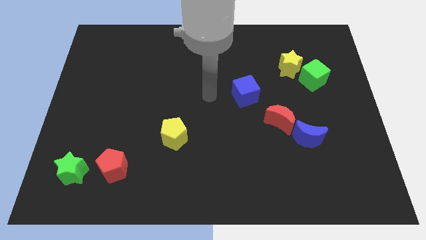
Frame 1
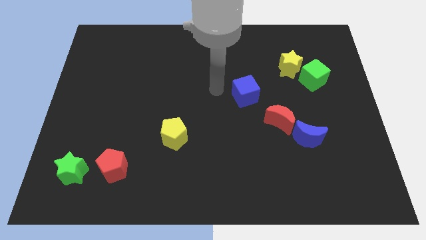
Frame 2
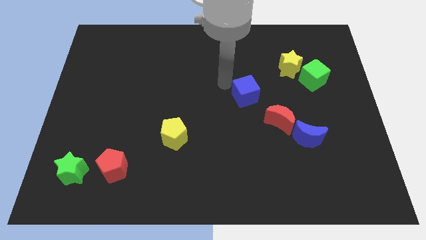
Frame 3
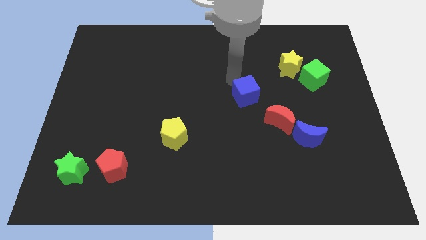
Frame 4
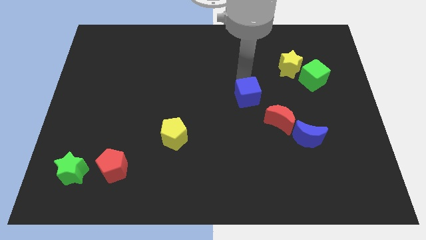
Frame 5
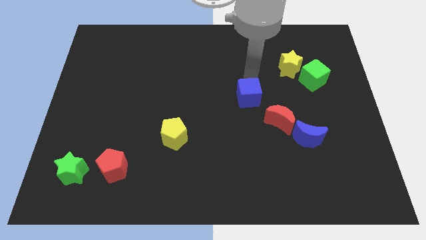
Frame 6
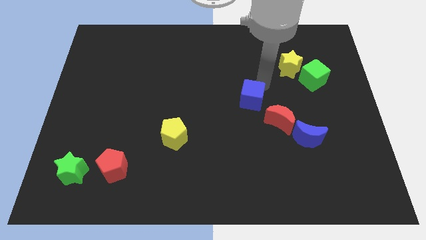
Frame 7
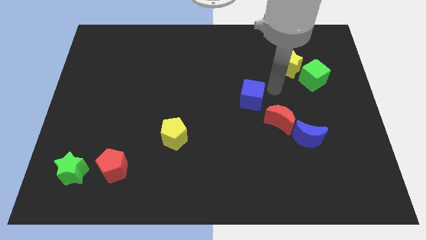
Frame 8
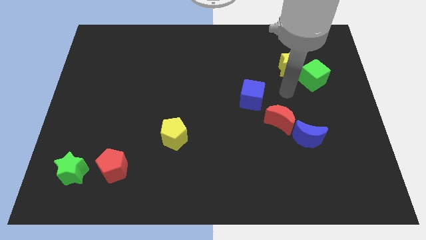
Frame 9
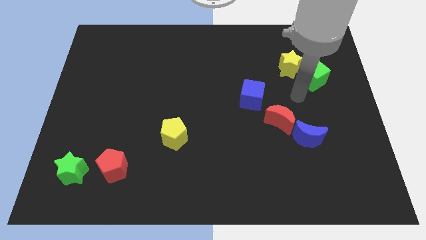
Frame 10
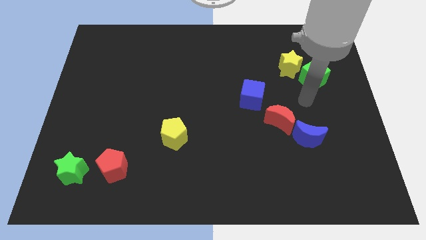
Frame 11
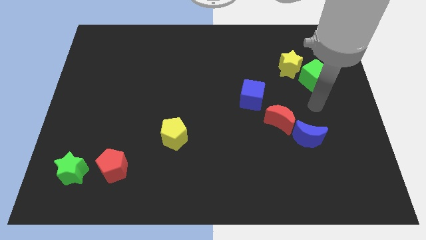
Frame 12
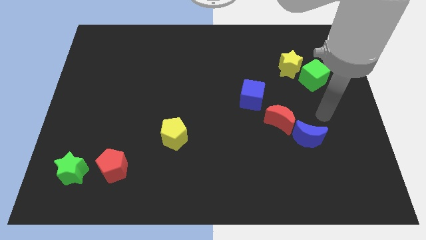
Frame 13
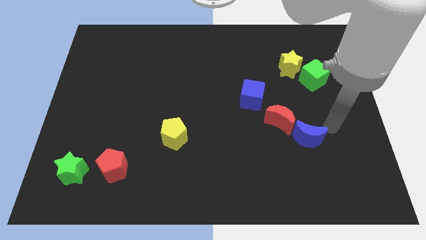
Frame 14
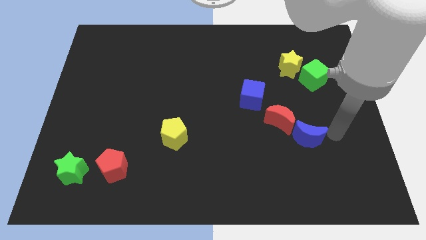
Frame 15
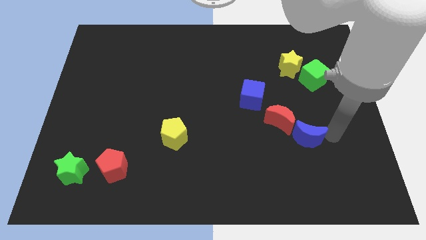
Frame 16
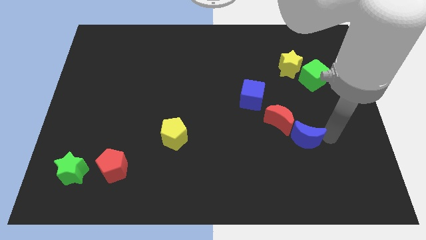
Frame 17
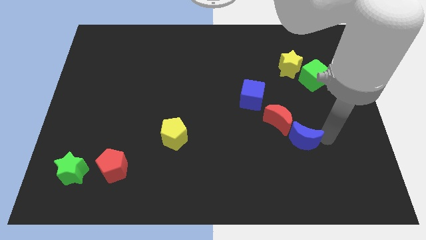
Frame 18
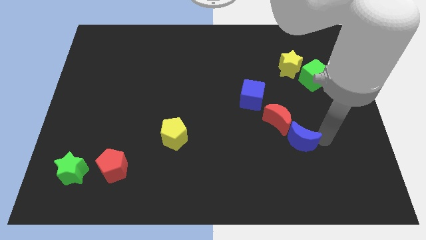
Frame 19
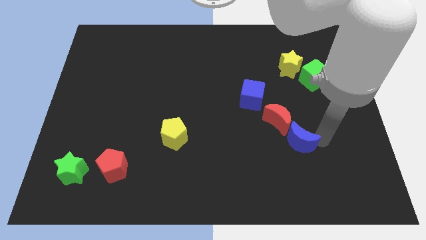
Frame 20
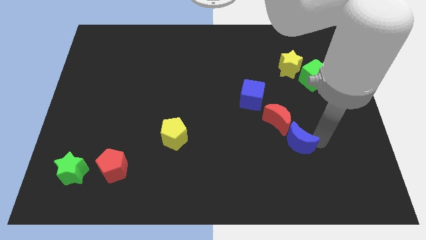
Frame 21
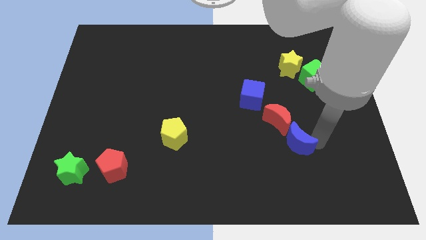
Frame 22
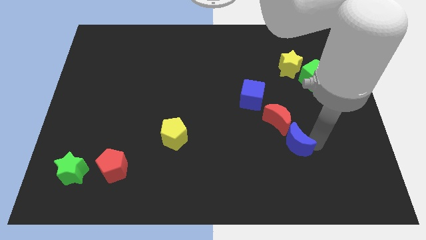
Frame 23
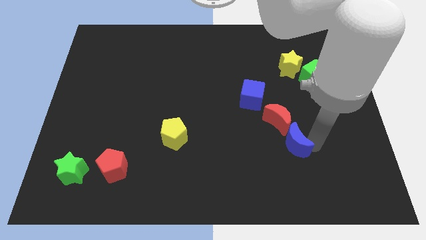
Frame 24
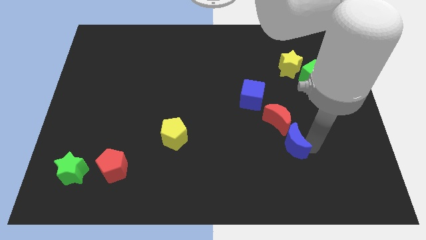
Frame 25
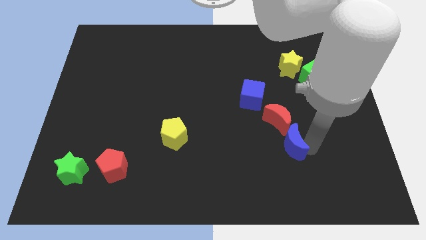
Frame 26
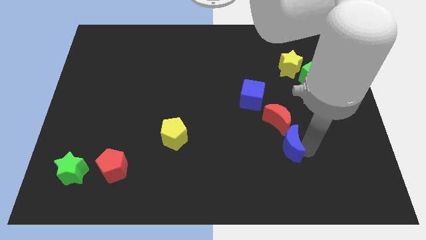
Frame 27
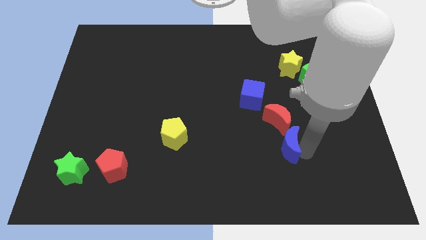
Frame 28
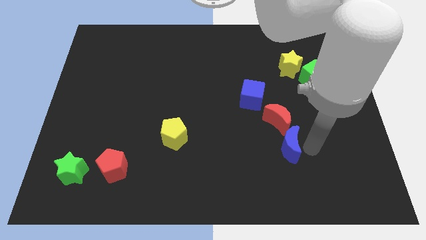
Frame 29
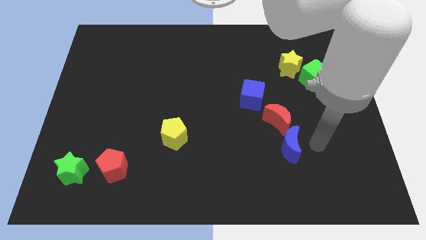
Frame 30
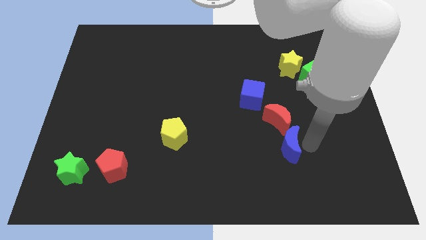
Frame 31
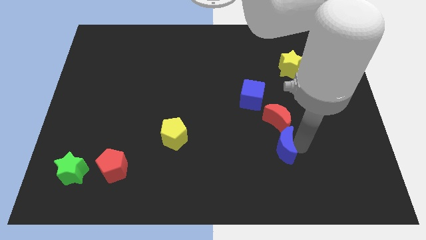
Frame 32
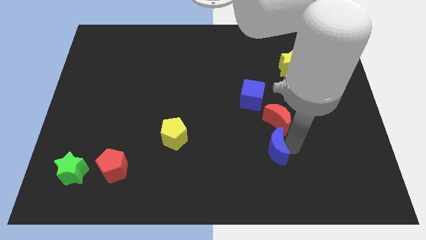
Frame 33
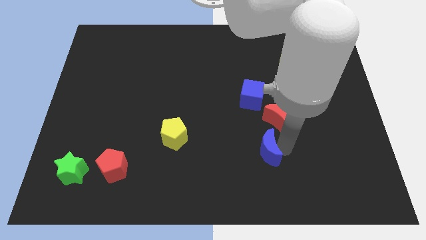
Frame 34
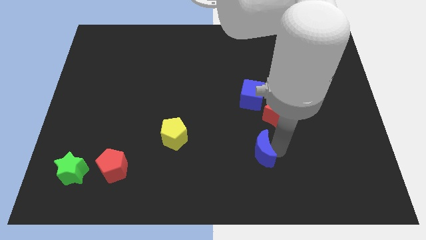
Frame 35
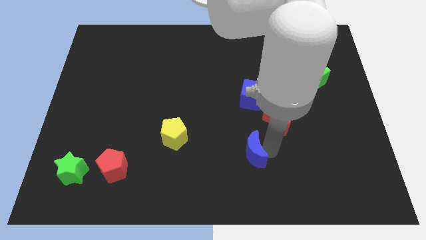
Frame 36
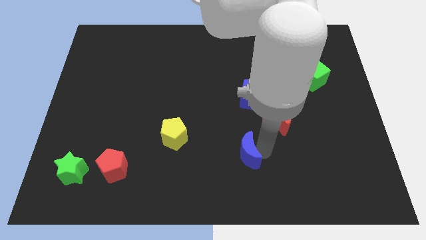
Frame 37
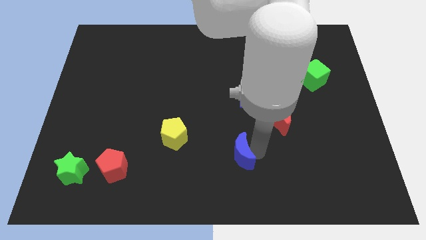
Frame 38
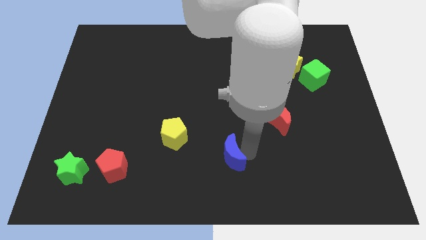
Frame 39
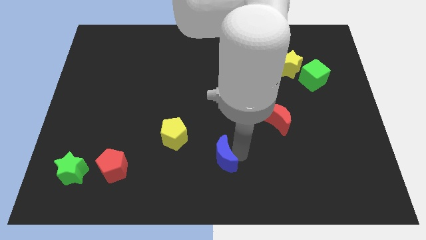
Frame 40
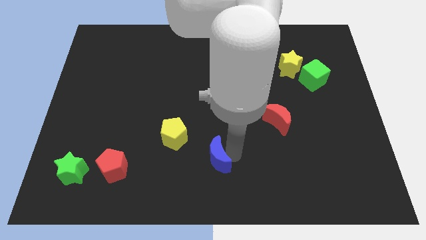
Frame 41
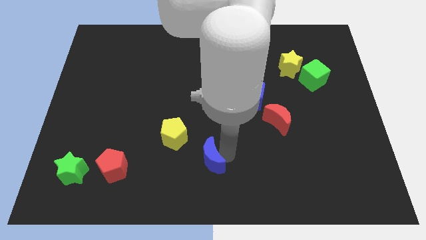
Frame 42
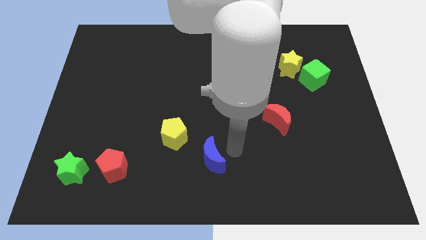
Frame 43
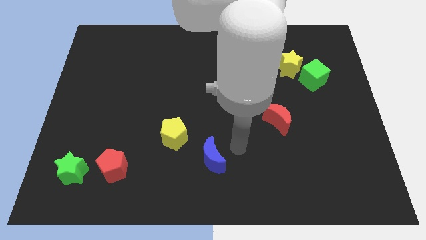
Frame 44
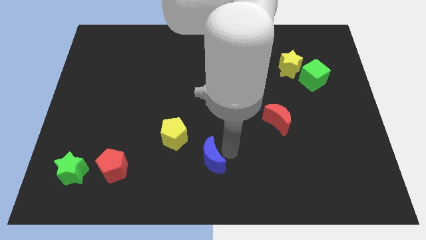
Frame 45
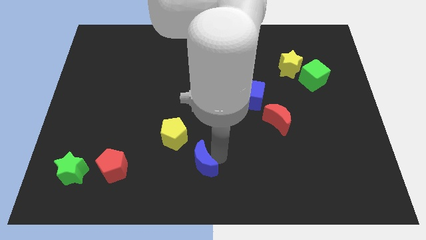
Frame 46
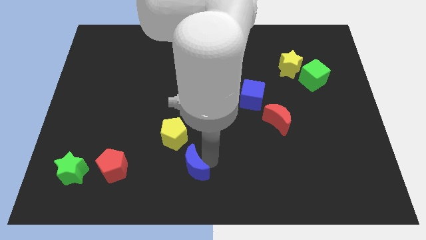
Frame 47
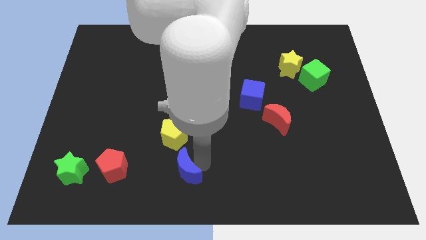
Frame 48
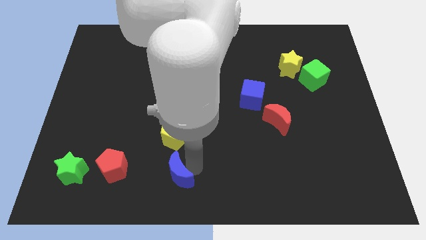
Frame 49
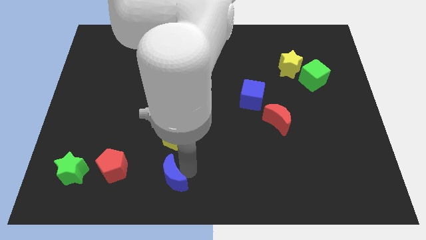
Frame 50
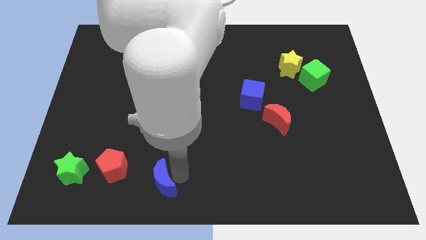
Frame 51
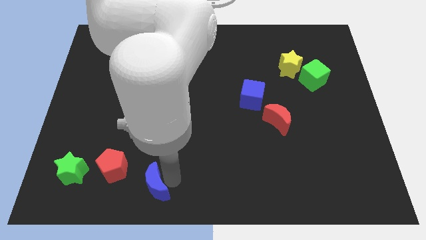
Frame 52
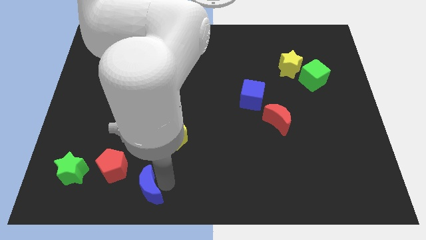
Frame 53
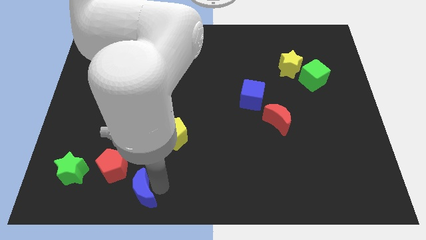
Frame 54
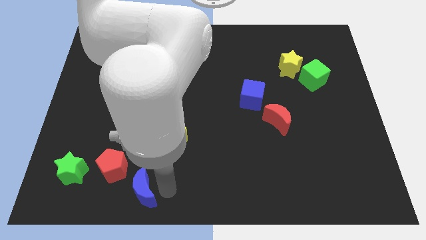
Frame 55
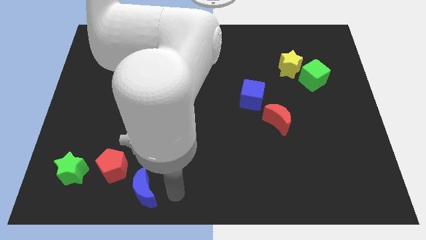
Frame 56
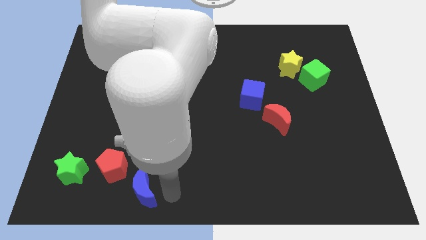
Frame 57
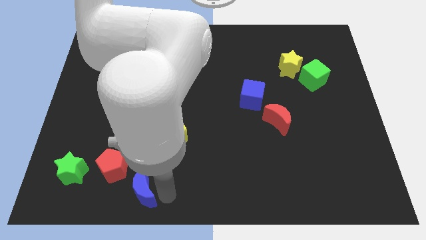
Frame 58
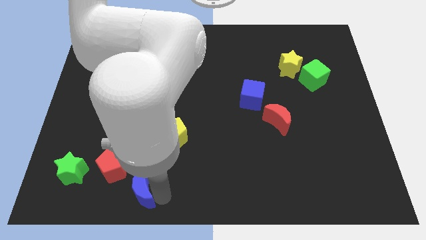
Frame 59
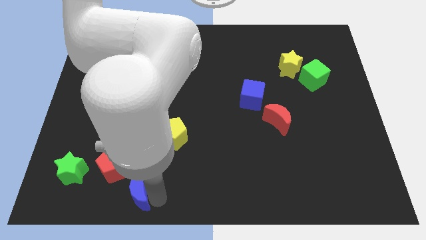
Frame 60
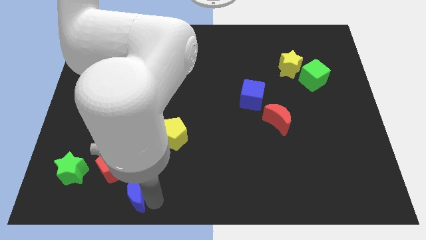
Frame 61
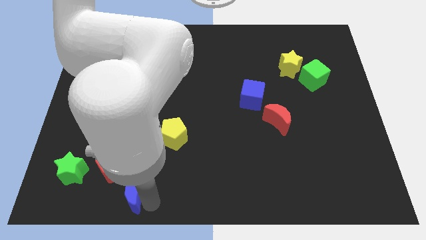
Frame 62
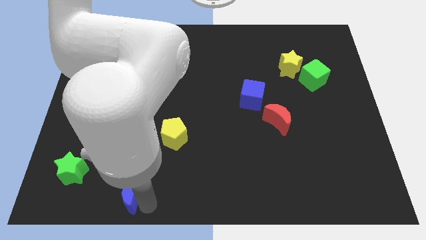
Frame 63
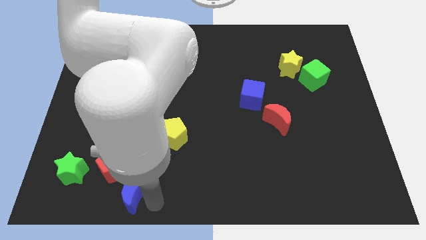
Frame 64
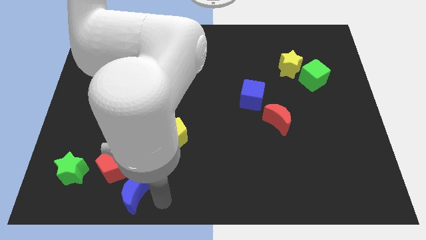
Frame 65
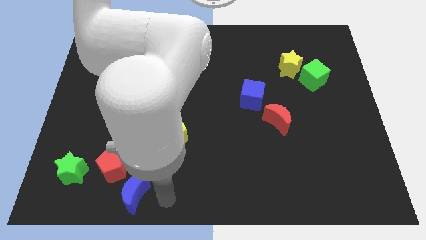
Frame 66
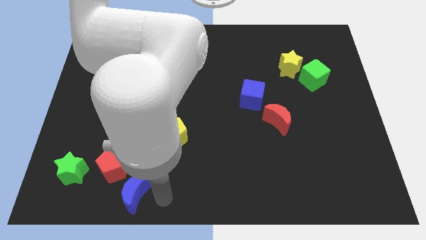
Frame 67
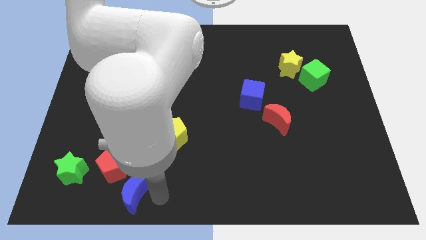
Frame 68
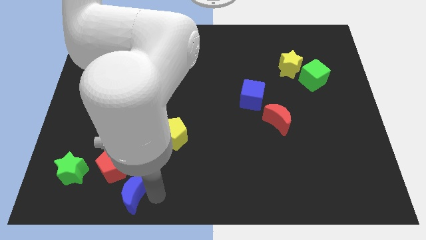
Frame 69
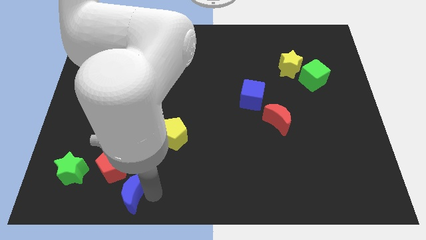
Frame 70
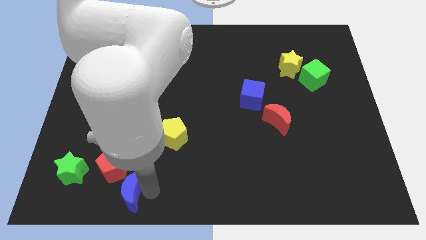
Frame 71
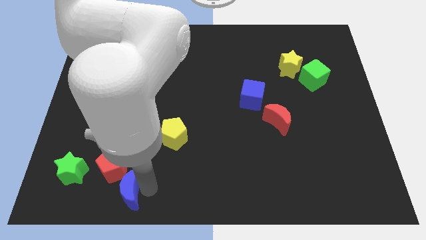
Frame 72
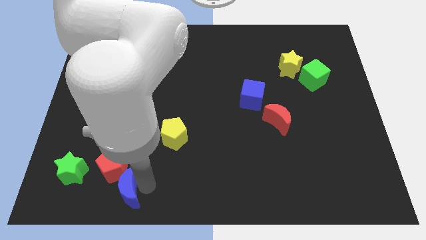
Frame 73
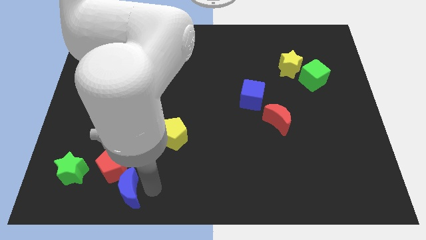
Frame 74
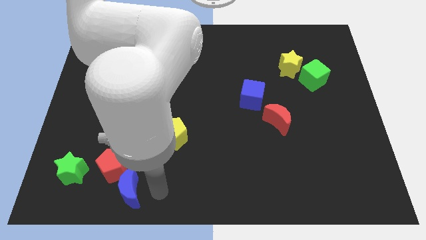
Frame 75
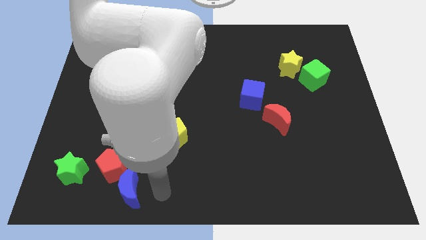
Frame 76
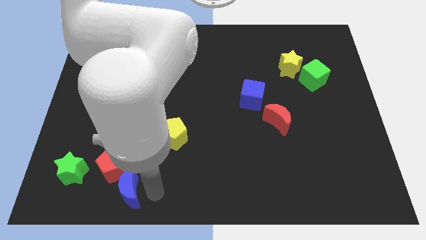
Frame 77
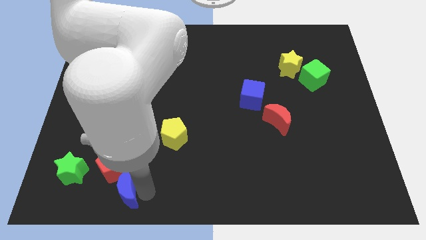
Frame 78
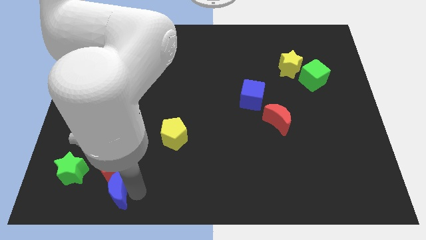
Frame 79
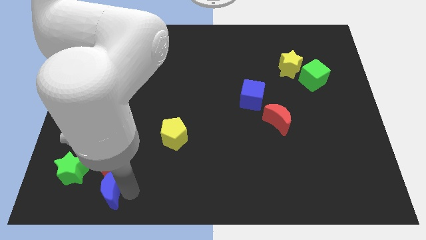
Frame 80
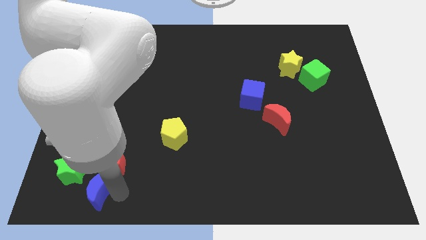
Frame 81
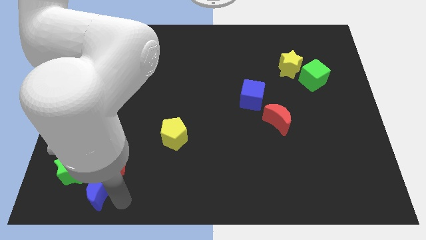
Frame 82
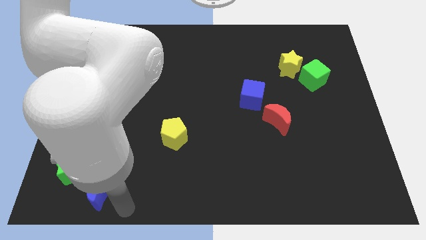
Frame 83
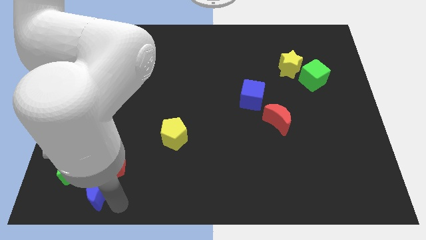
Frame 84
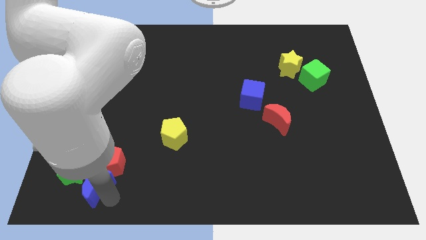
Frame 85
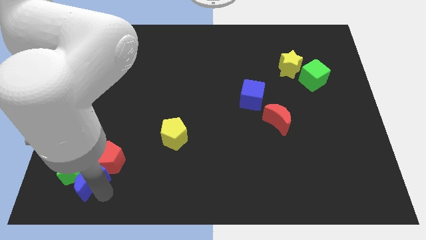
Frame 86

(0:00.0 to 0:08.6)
push the blue moon next to the green star
